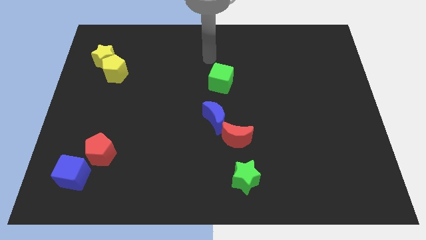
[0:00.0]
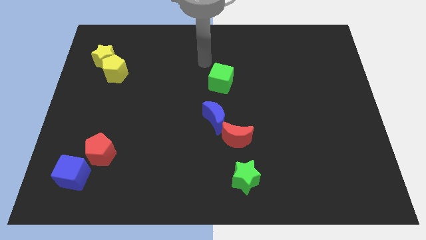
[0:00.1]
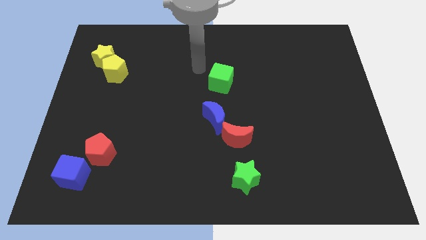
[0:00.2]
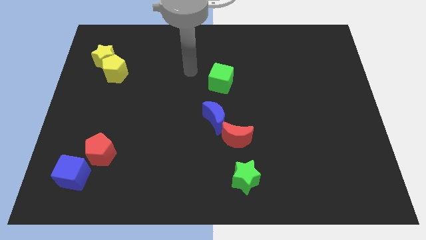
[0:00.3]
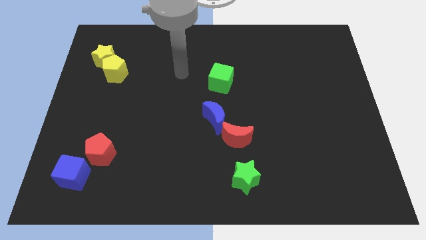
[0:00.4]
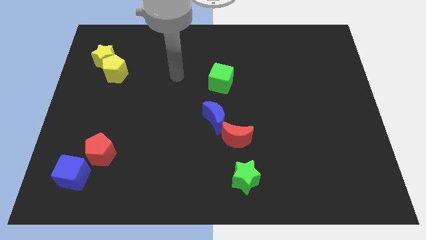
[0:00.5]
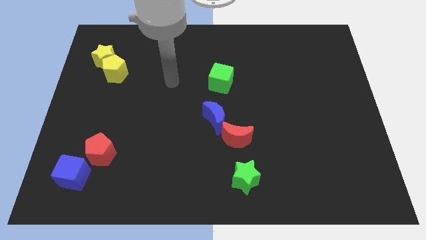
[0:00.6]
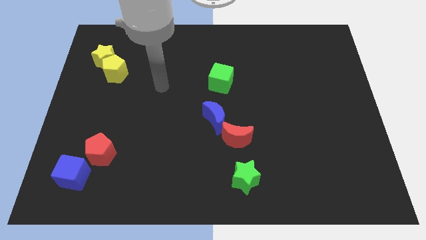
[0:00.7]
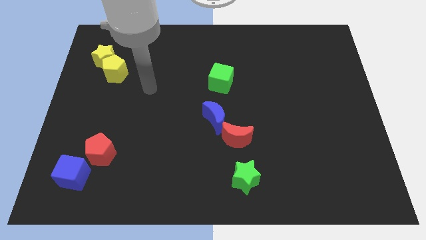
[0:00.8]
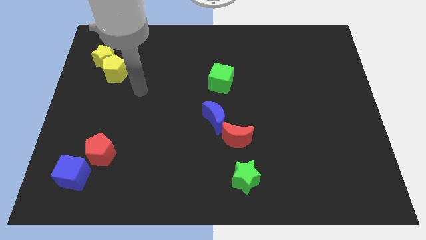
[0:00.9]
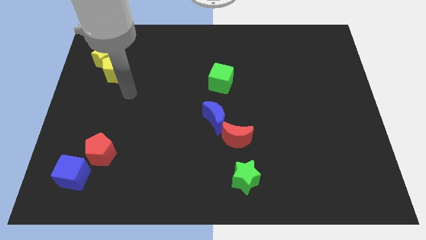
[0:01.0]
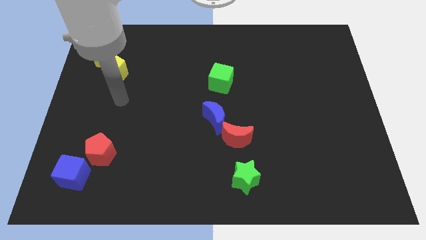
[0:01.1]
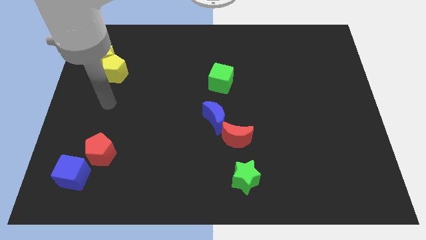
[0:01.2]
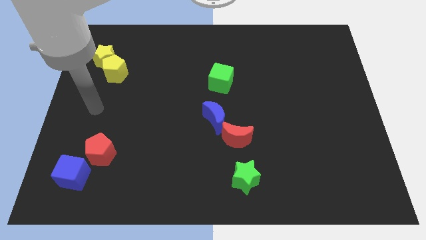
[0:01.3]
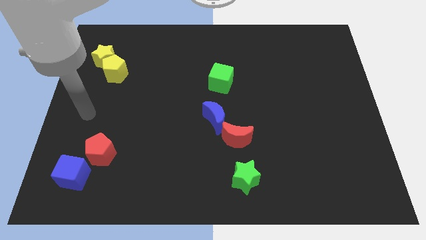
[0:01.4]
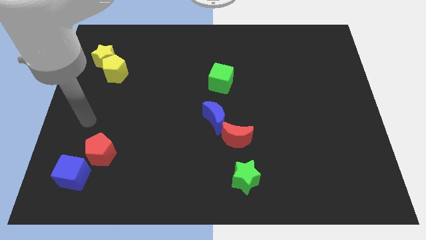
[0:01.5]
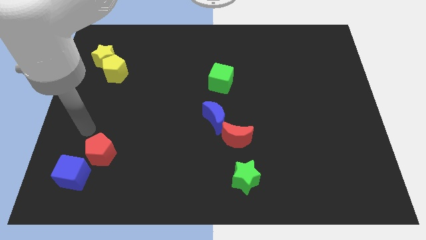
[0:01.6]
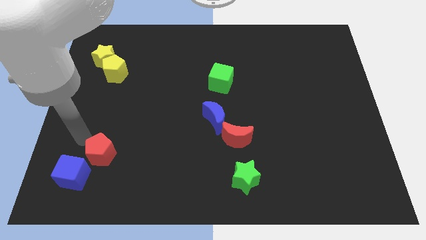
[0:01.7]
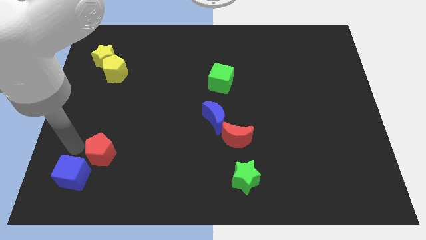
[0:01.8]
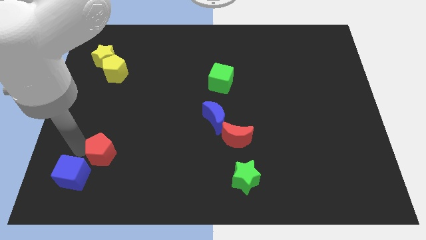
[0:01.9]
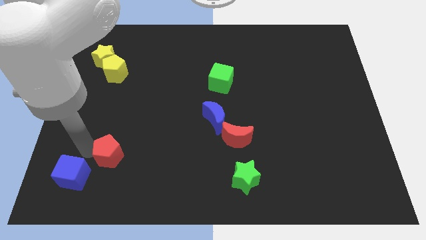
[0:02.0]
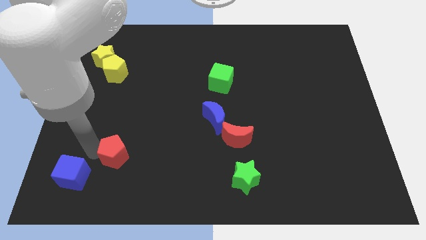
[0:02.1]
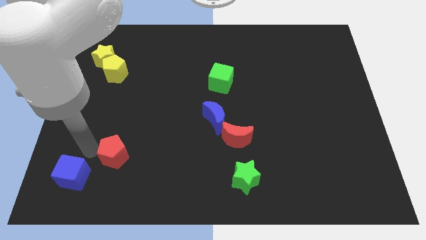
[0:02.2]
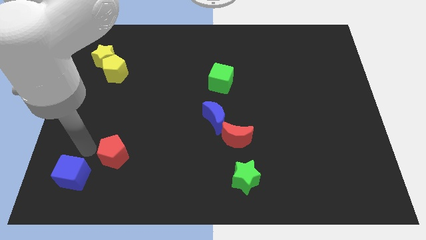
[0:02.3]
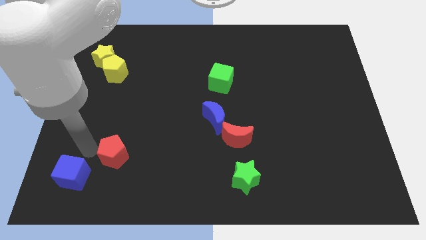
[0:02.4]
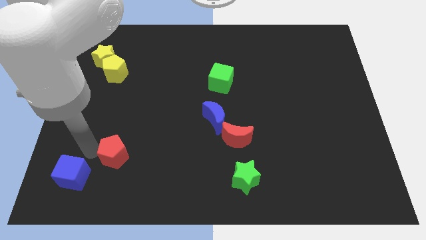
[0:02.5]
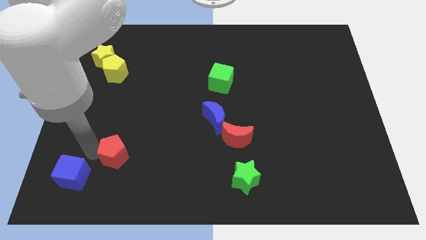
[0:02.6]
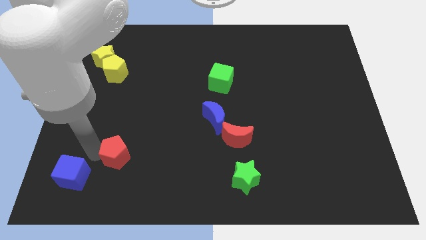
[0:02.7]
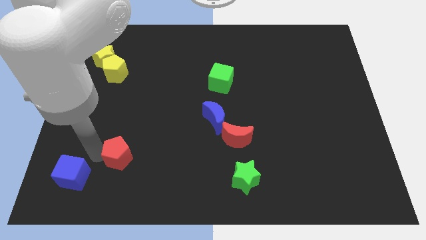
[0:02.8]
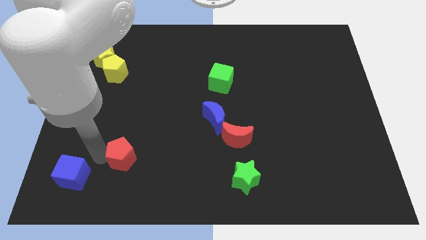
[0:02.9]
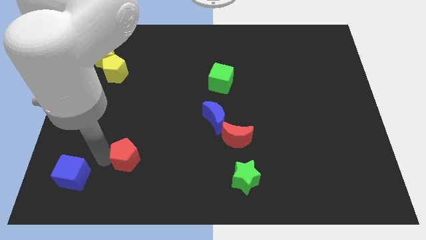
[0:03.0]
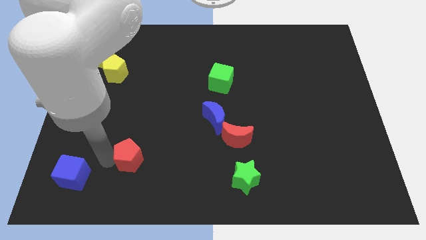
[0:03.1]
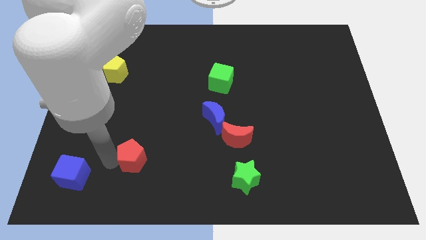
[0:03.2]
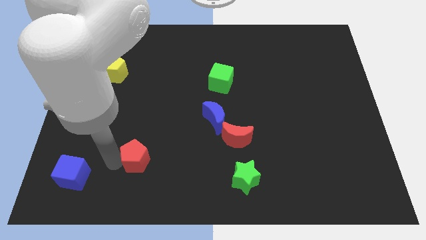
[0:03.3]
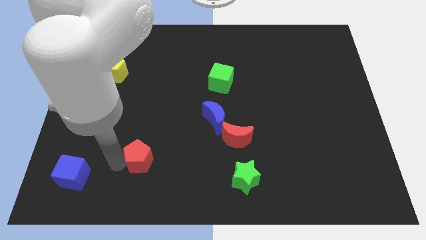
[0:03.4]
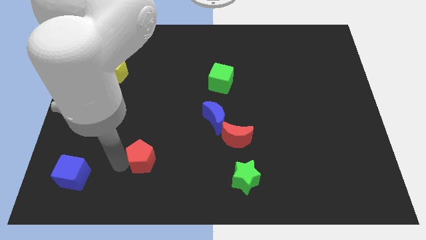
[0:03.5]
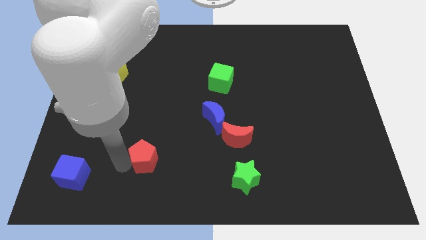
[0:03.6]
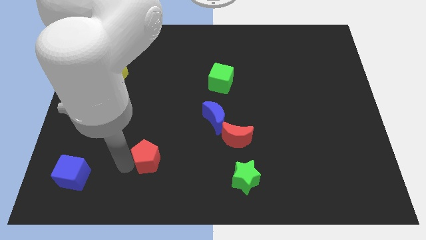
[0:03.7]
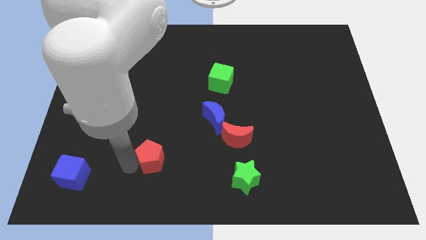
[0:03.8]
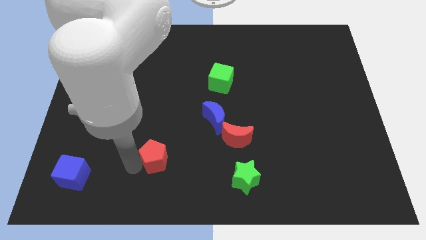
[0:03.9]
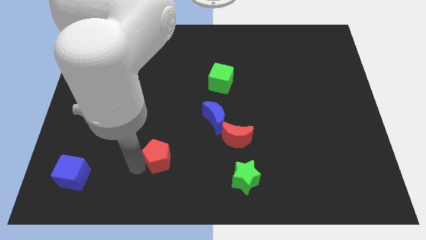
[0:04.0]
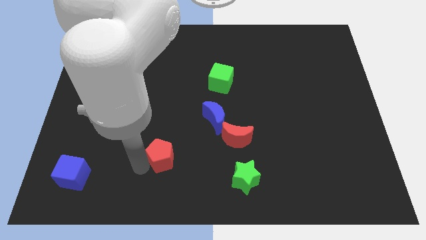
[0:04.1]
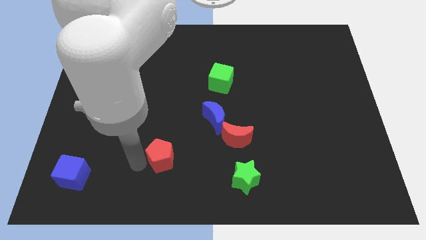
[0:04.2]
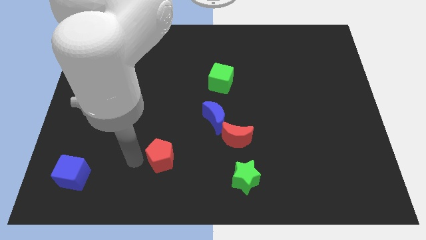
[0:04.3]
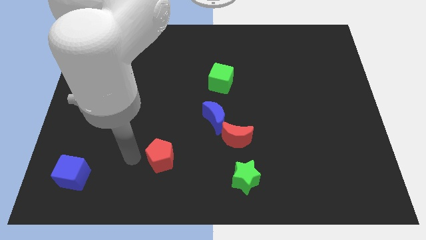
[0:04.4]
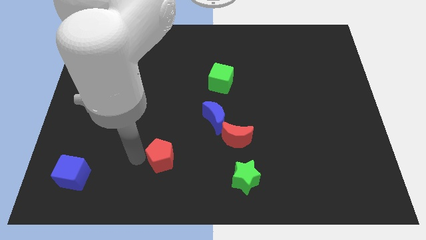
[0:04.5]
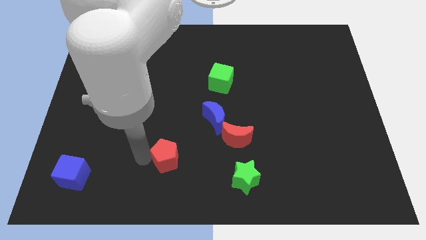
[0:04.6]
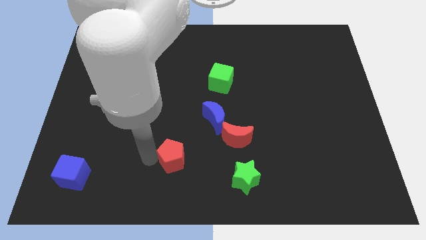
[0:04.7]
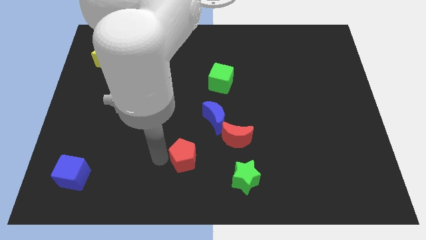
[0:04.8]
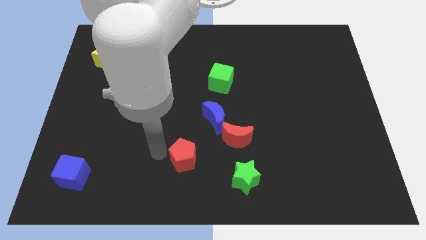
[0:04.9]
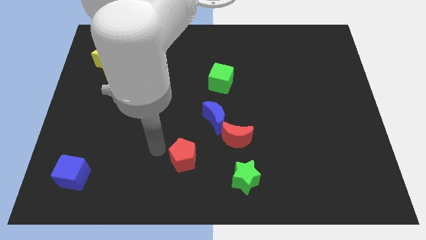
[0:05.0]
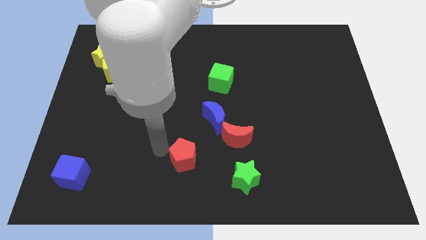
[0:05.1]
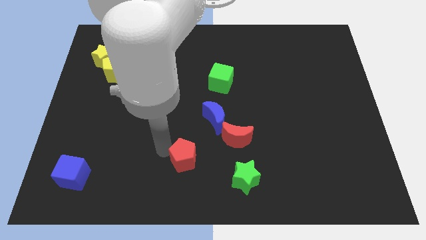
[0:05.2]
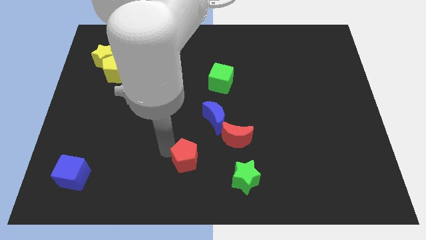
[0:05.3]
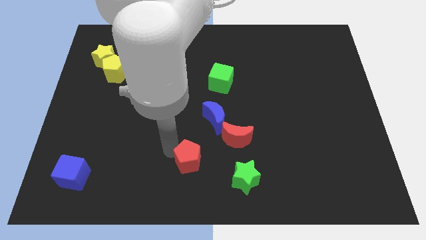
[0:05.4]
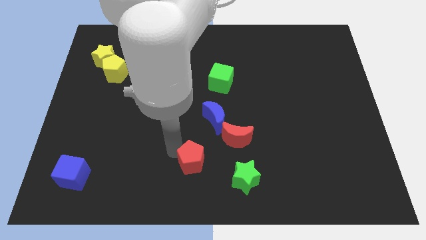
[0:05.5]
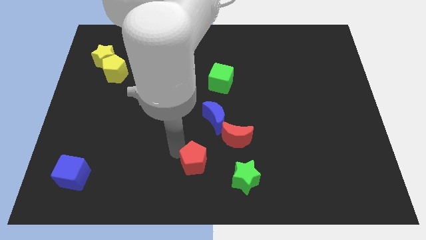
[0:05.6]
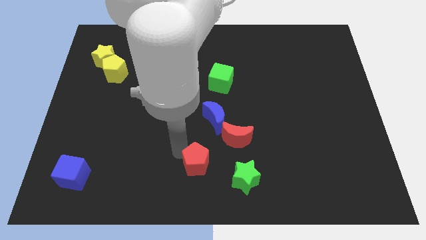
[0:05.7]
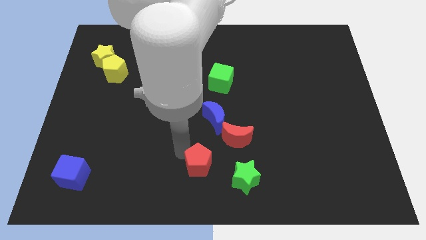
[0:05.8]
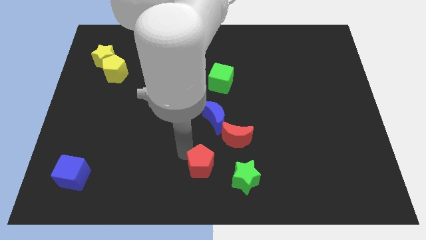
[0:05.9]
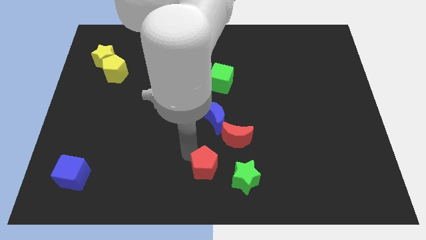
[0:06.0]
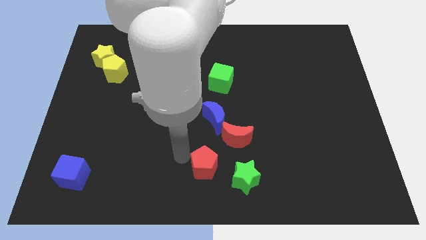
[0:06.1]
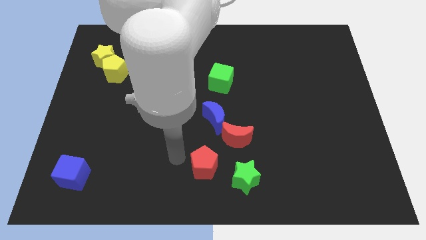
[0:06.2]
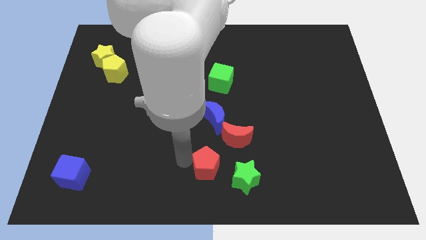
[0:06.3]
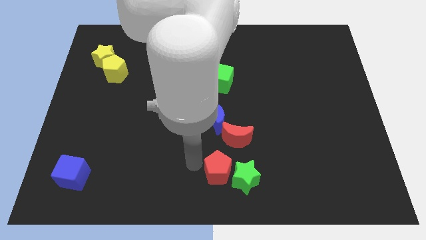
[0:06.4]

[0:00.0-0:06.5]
put the red pentagon next to the green star

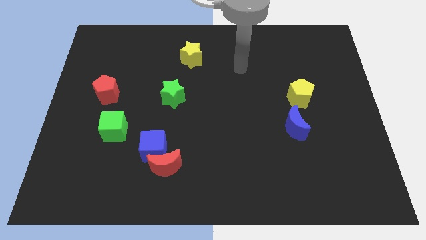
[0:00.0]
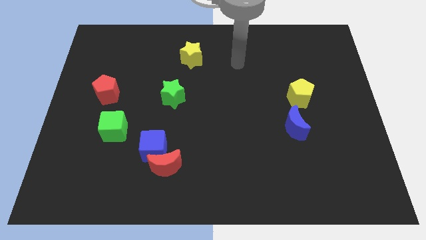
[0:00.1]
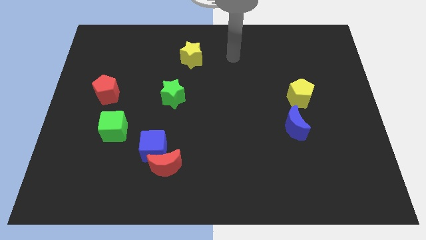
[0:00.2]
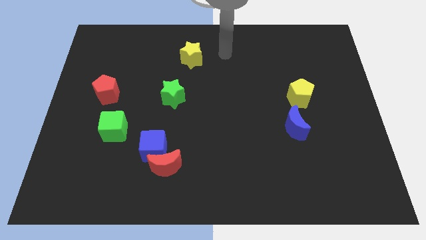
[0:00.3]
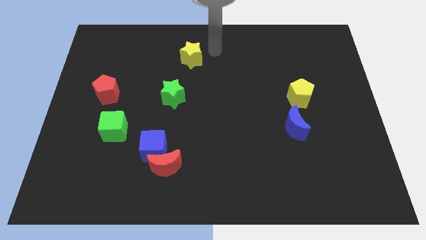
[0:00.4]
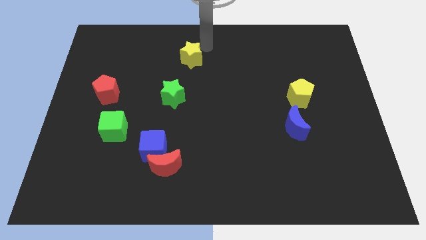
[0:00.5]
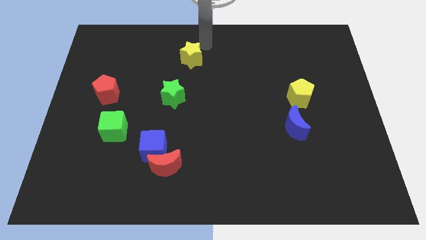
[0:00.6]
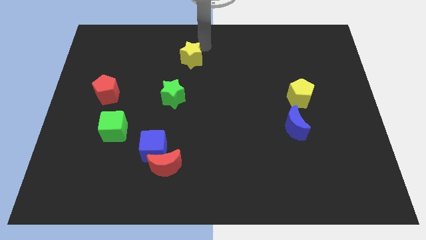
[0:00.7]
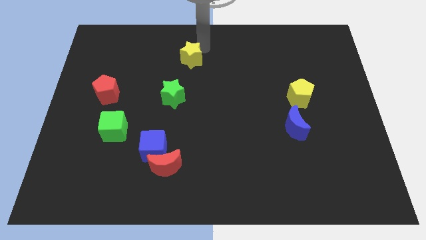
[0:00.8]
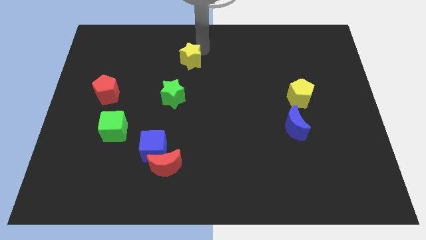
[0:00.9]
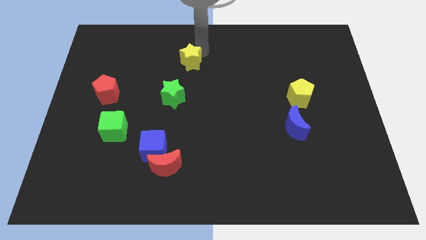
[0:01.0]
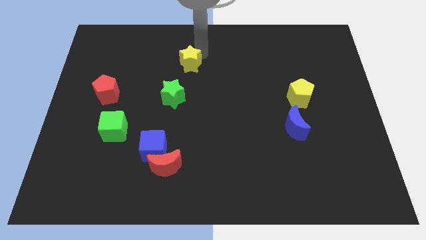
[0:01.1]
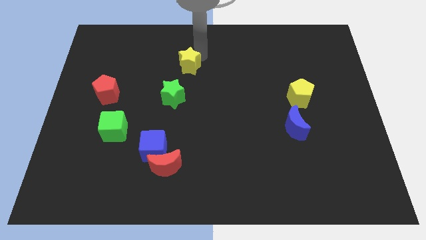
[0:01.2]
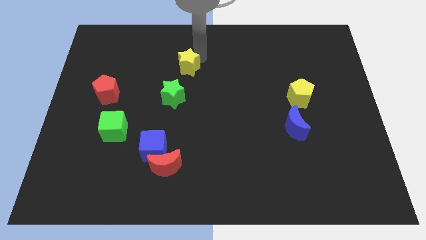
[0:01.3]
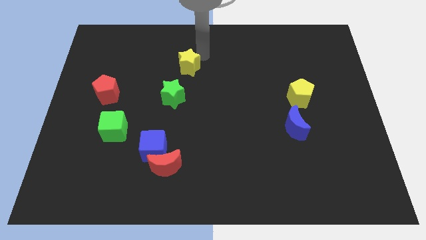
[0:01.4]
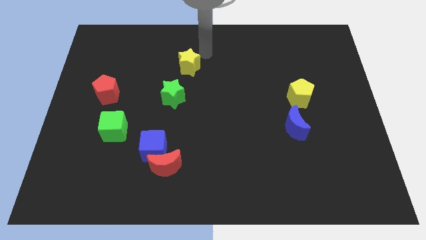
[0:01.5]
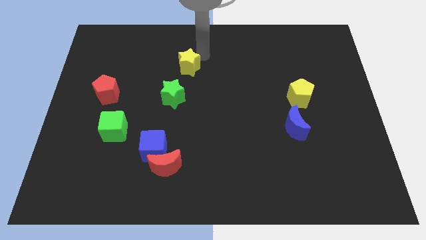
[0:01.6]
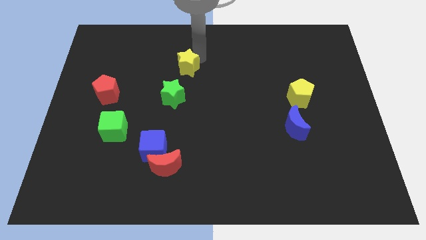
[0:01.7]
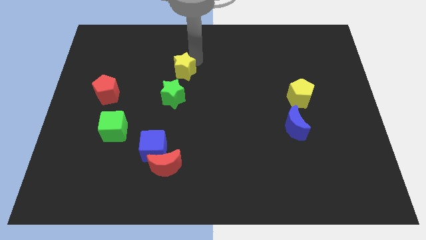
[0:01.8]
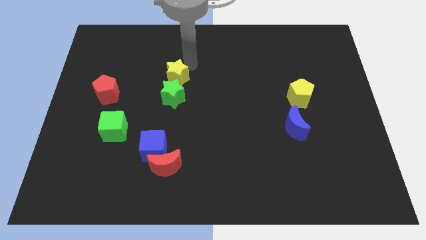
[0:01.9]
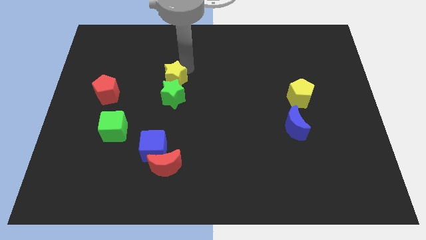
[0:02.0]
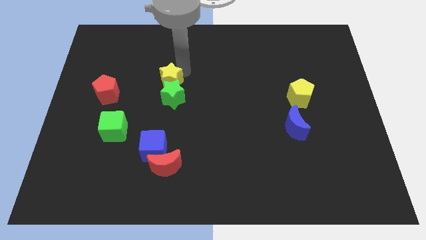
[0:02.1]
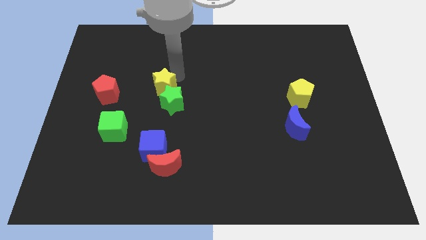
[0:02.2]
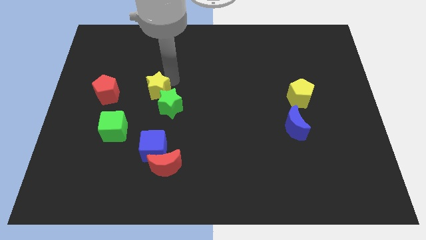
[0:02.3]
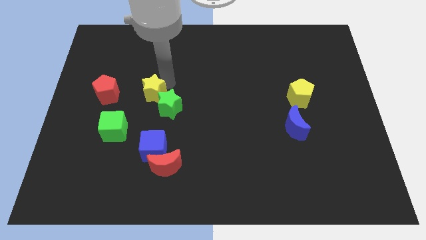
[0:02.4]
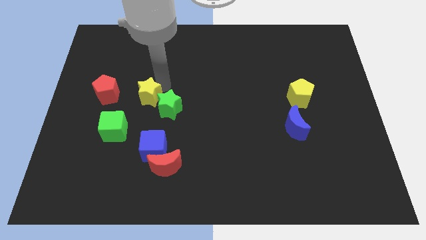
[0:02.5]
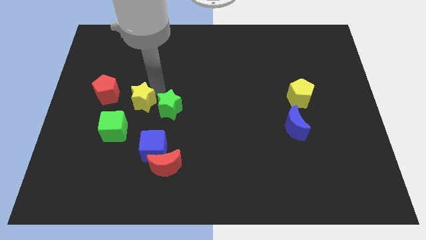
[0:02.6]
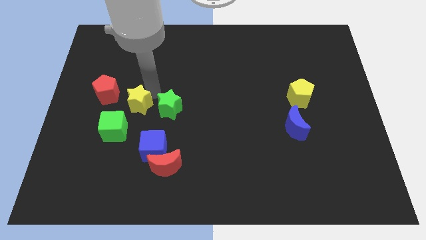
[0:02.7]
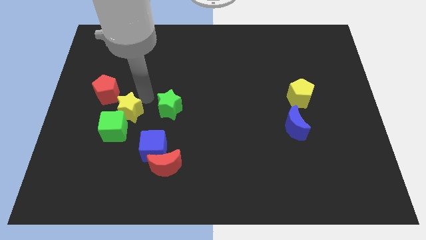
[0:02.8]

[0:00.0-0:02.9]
slide the yellow star next to the green cube
